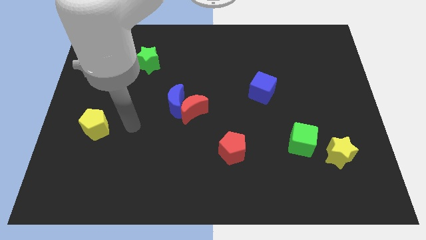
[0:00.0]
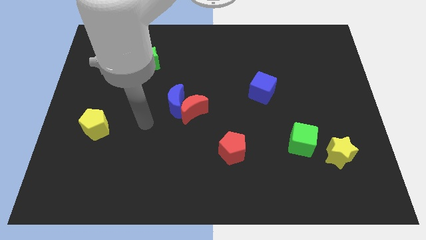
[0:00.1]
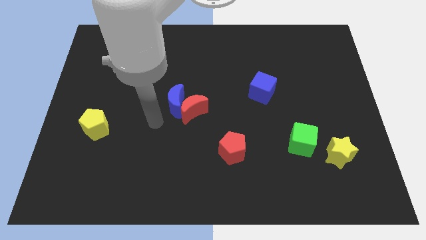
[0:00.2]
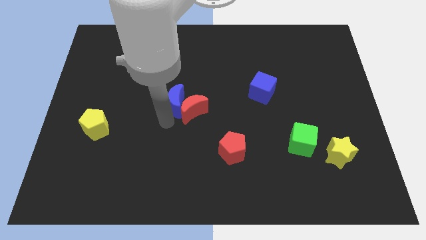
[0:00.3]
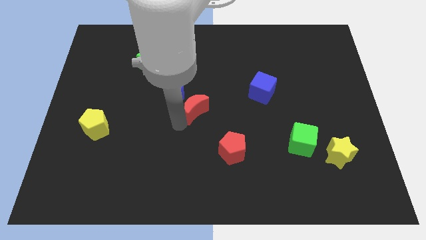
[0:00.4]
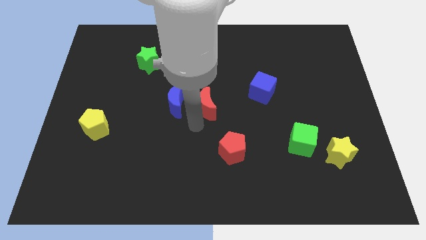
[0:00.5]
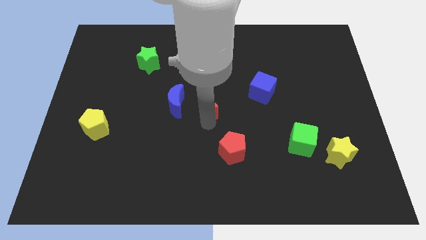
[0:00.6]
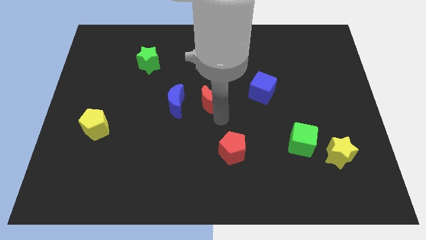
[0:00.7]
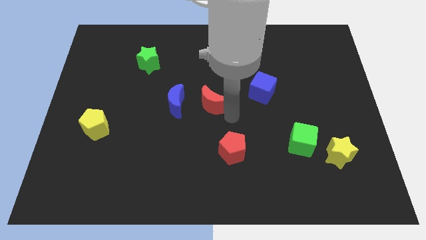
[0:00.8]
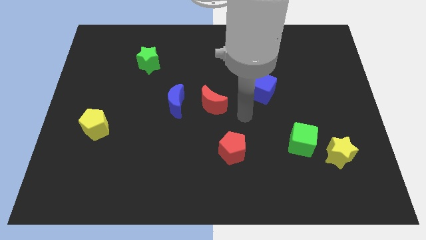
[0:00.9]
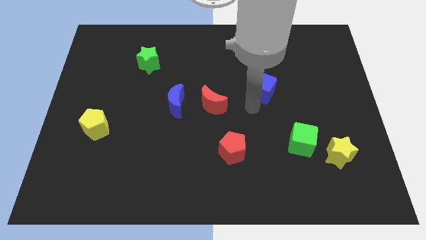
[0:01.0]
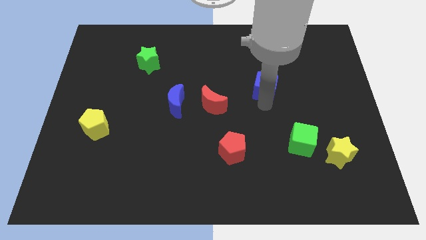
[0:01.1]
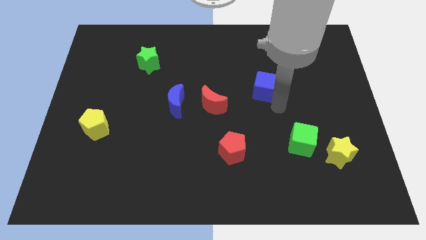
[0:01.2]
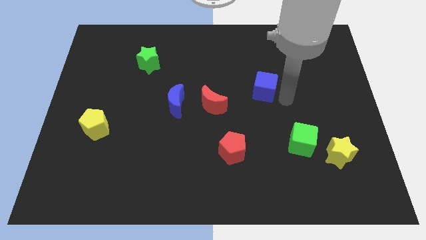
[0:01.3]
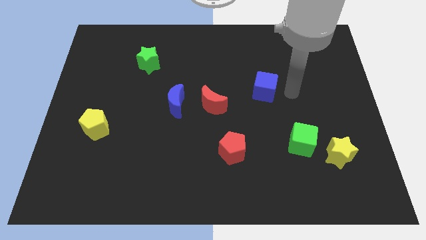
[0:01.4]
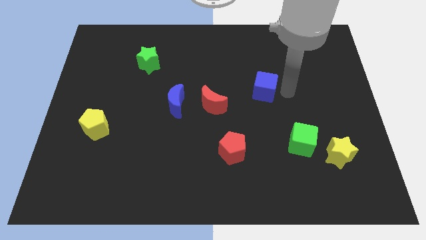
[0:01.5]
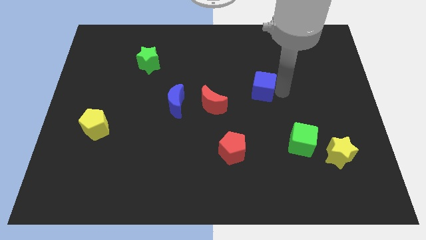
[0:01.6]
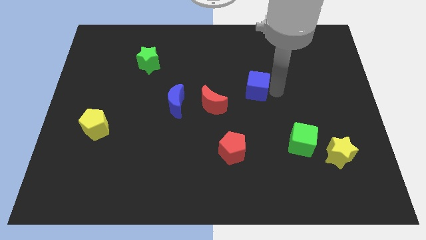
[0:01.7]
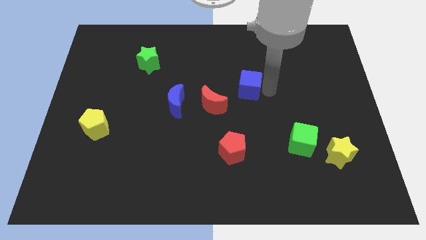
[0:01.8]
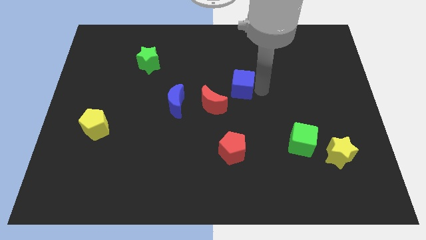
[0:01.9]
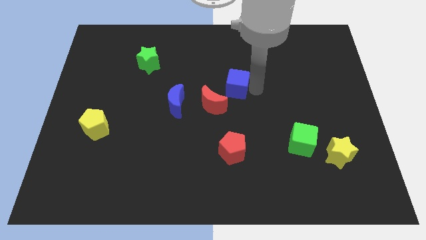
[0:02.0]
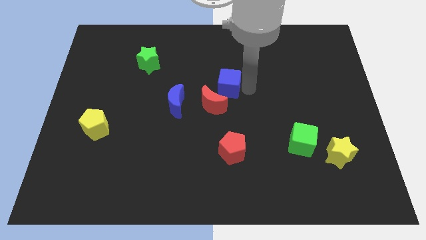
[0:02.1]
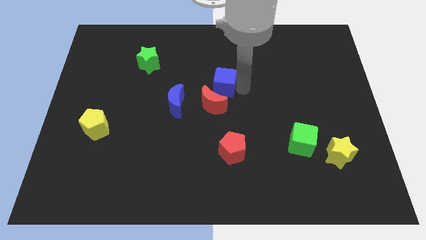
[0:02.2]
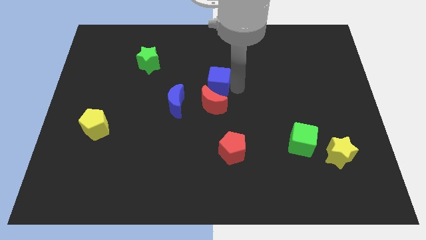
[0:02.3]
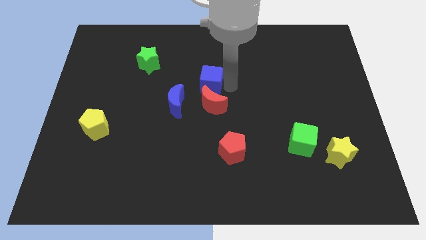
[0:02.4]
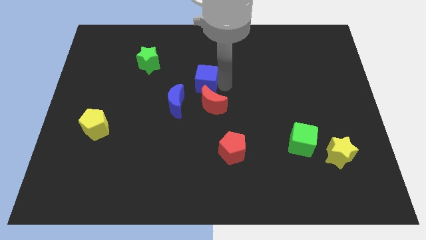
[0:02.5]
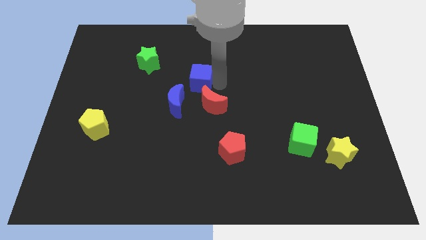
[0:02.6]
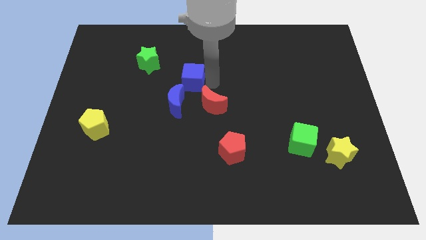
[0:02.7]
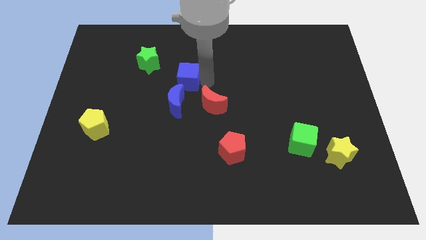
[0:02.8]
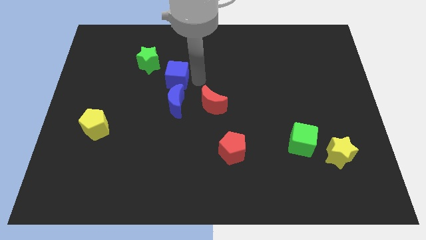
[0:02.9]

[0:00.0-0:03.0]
push the blue cube to the left

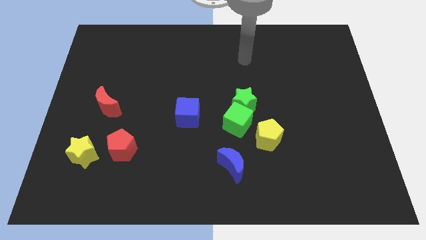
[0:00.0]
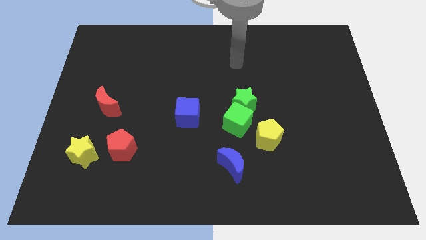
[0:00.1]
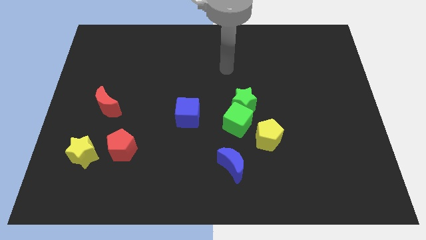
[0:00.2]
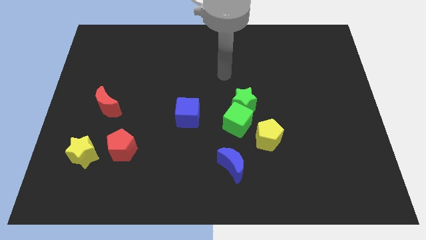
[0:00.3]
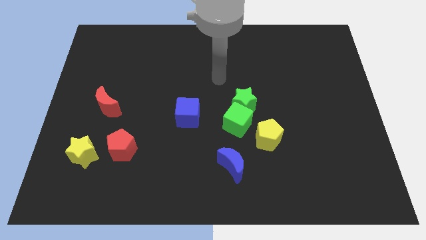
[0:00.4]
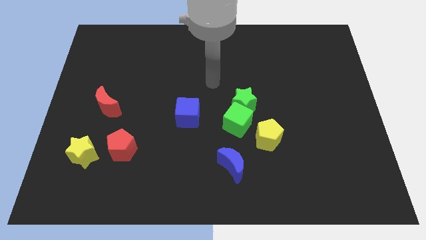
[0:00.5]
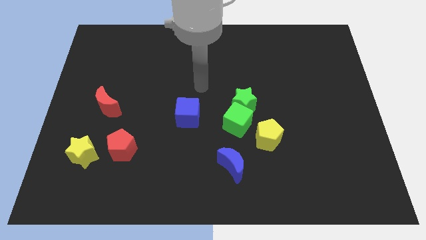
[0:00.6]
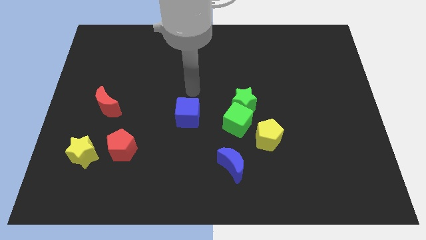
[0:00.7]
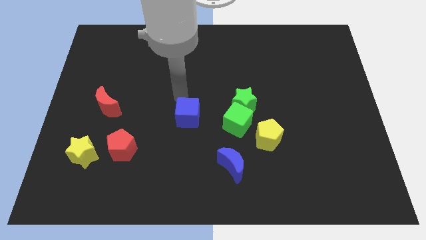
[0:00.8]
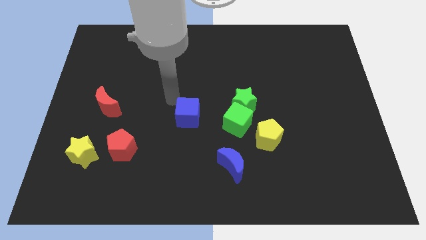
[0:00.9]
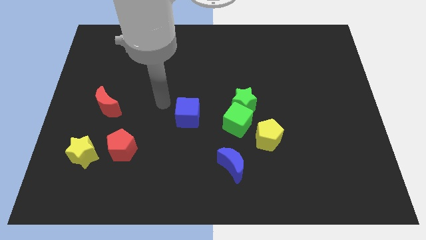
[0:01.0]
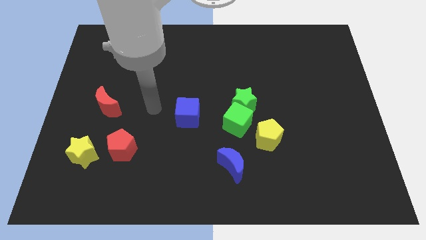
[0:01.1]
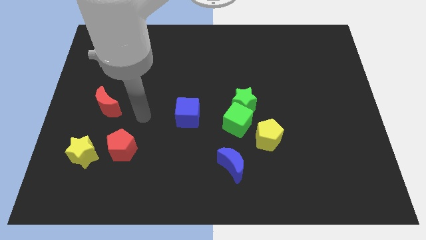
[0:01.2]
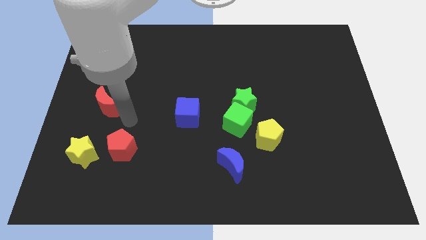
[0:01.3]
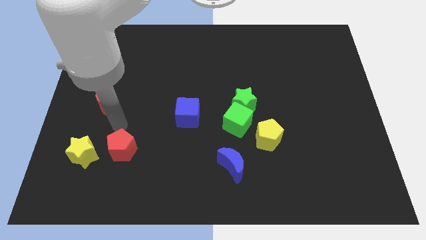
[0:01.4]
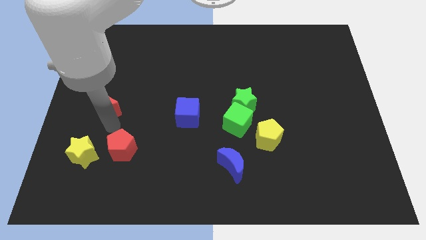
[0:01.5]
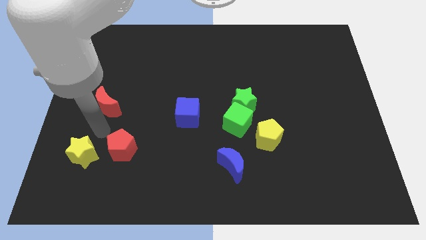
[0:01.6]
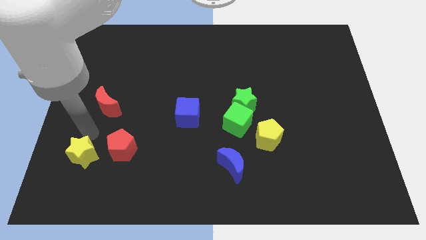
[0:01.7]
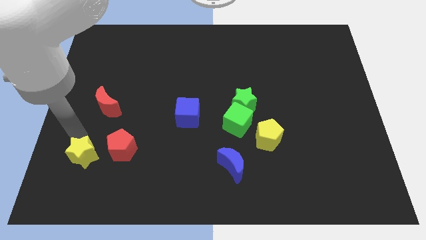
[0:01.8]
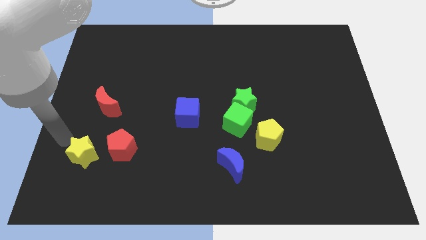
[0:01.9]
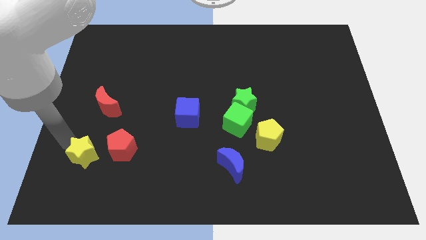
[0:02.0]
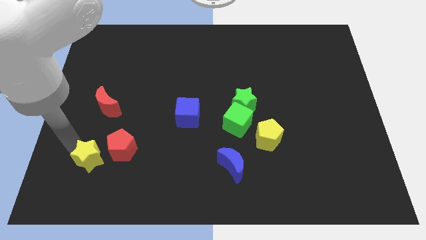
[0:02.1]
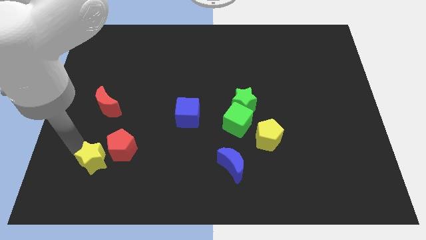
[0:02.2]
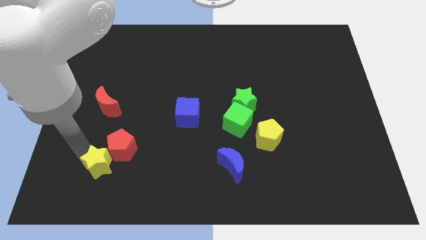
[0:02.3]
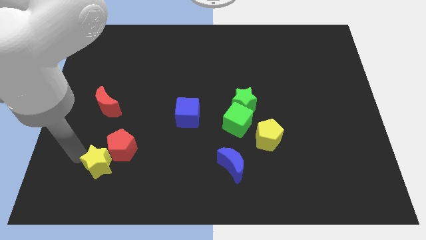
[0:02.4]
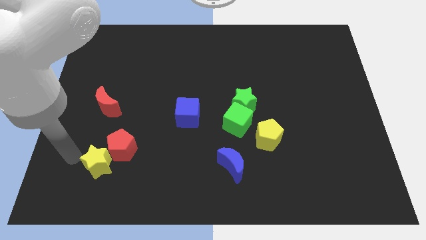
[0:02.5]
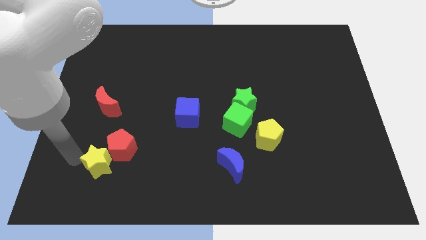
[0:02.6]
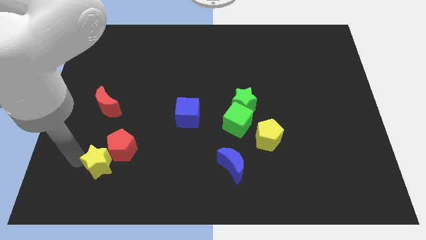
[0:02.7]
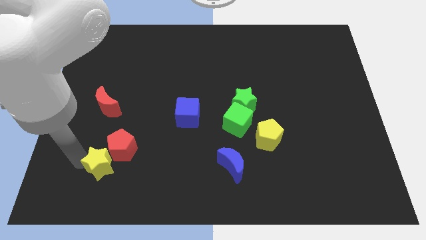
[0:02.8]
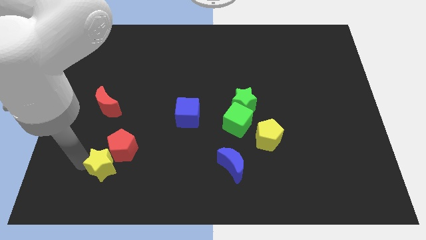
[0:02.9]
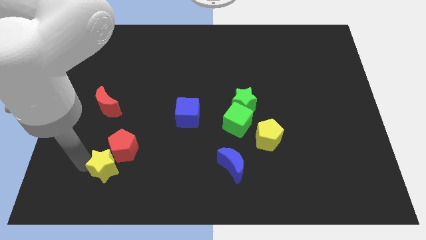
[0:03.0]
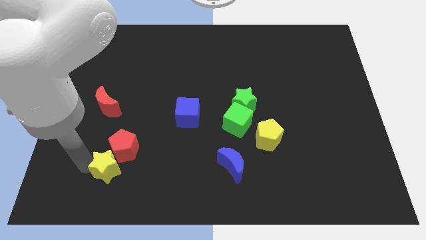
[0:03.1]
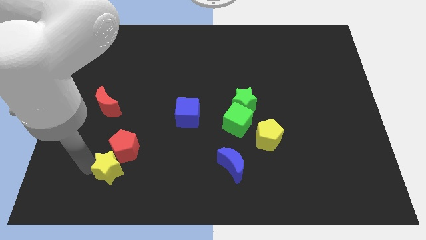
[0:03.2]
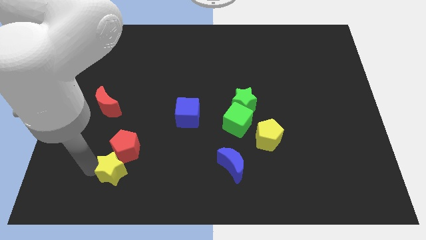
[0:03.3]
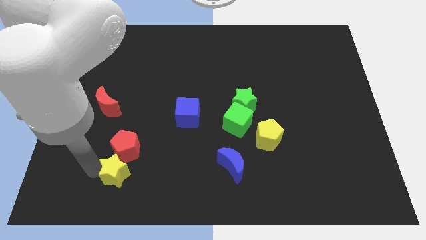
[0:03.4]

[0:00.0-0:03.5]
slide the yellow star to the right somewhat

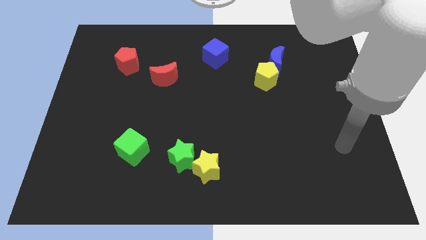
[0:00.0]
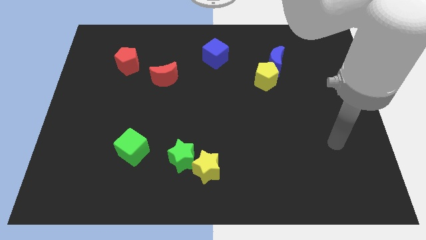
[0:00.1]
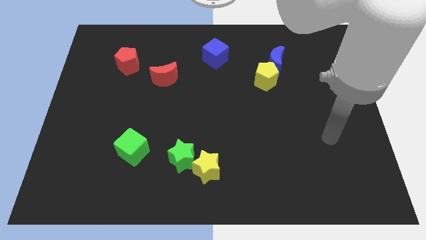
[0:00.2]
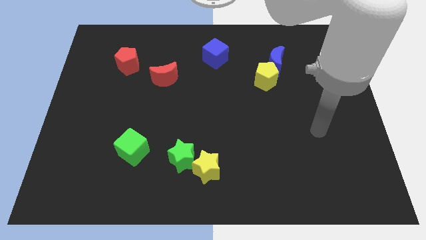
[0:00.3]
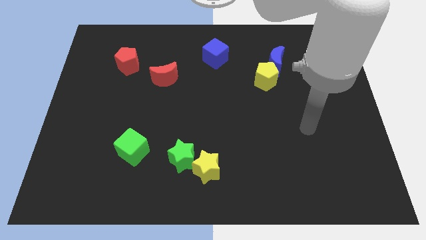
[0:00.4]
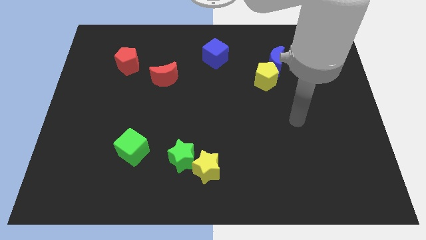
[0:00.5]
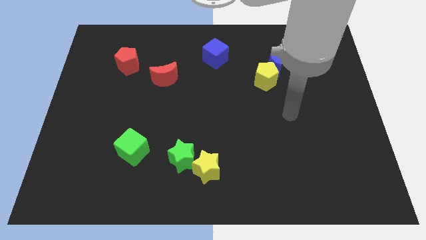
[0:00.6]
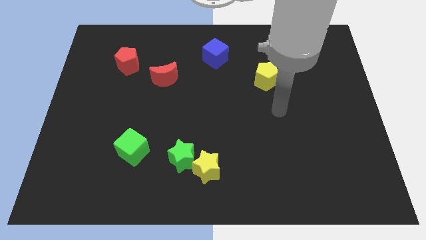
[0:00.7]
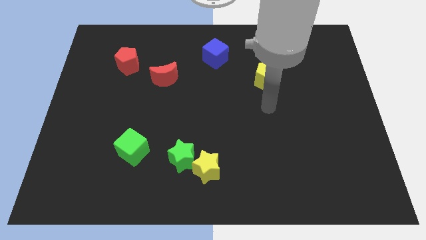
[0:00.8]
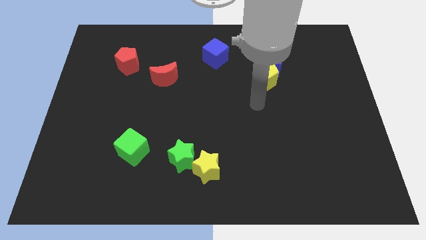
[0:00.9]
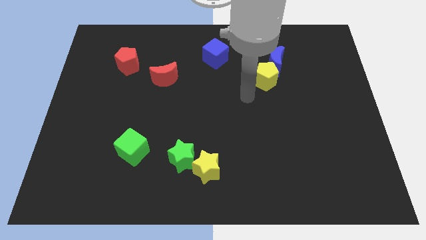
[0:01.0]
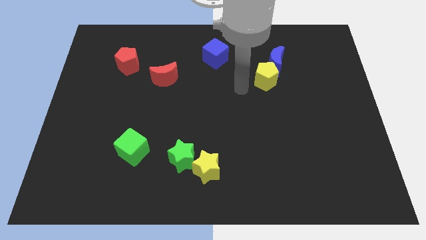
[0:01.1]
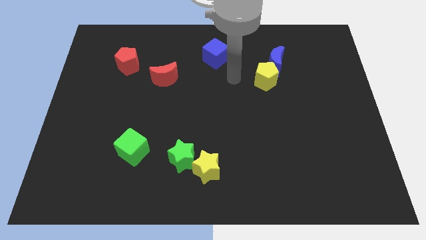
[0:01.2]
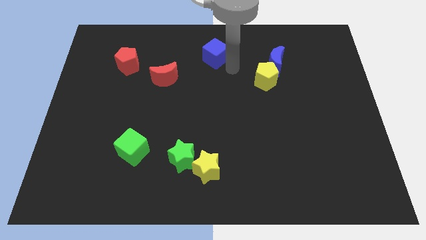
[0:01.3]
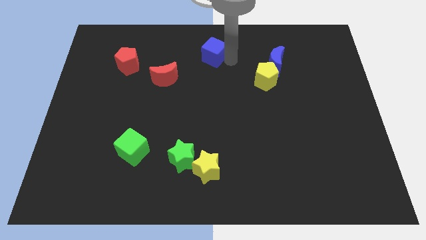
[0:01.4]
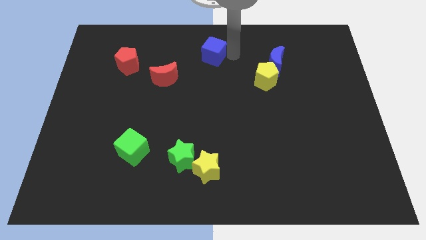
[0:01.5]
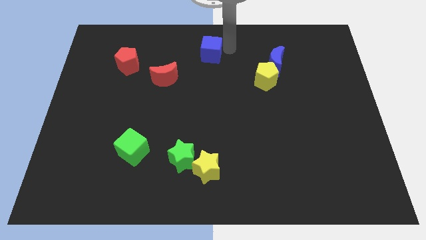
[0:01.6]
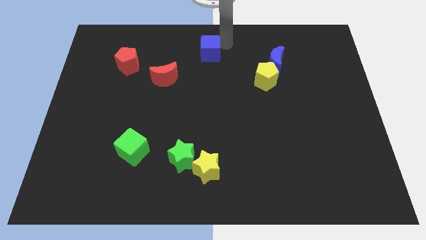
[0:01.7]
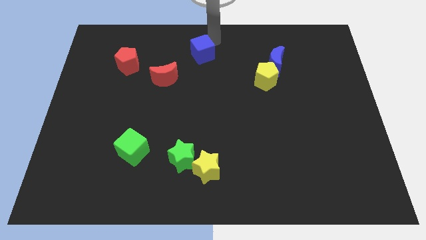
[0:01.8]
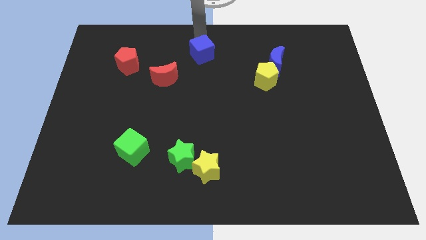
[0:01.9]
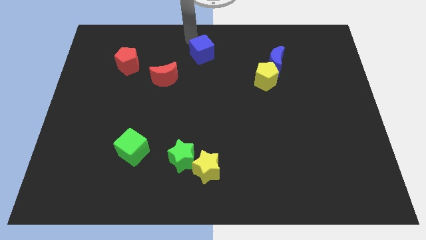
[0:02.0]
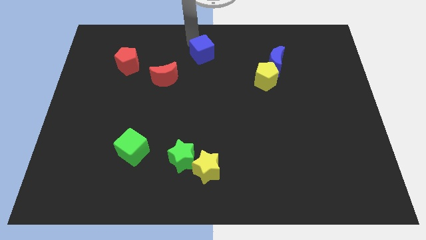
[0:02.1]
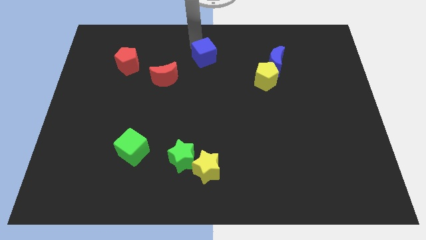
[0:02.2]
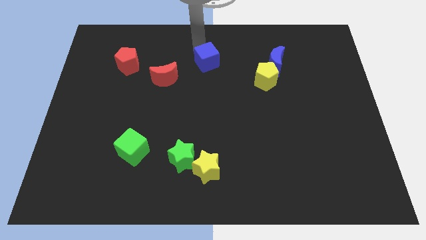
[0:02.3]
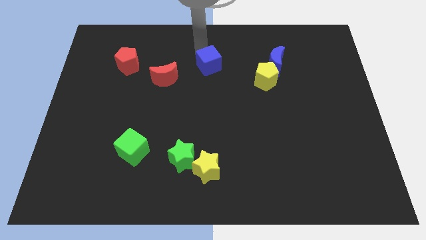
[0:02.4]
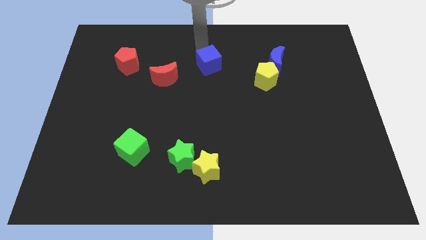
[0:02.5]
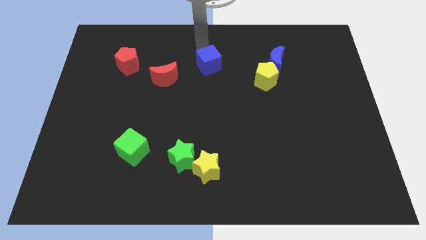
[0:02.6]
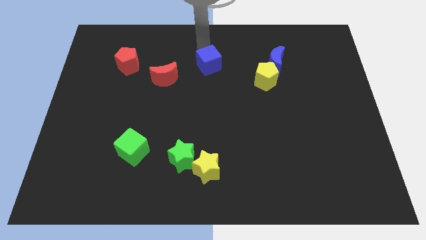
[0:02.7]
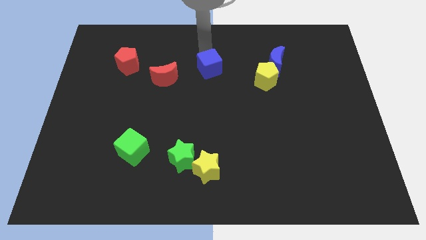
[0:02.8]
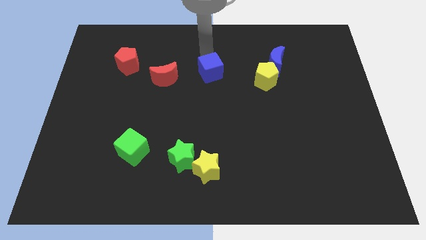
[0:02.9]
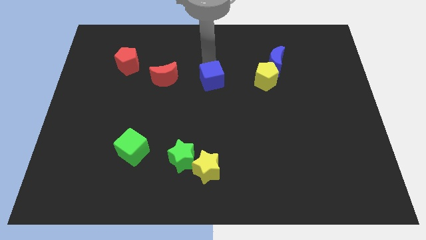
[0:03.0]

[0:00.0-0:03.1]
slightly push the blue cube down
